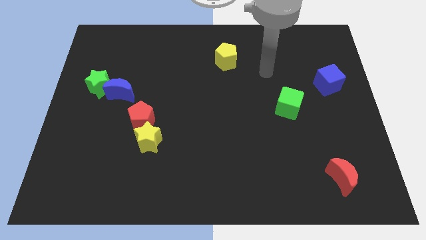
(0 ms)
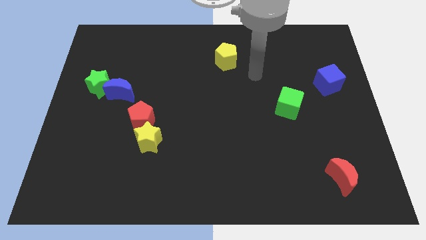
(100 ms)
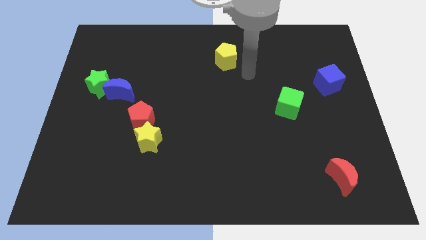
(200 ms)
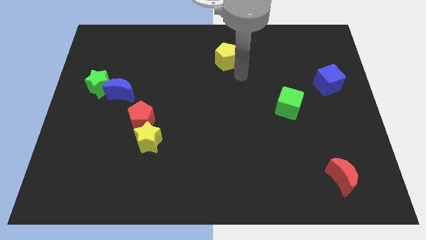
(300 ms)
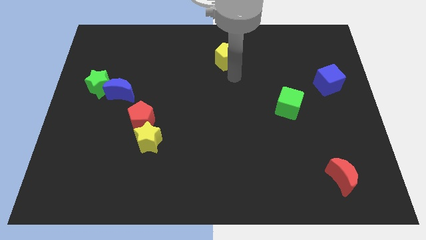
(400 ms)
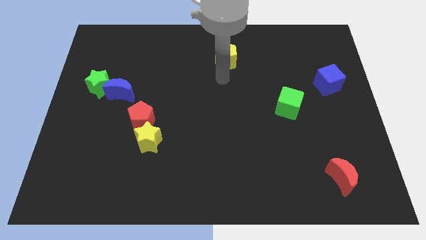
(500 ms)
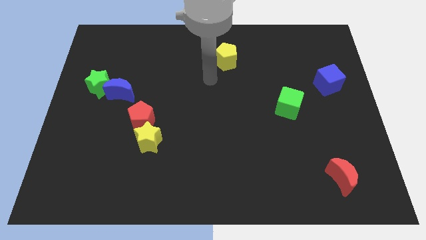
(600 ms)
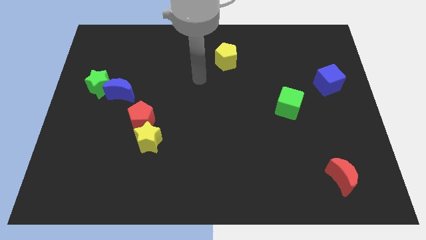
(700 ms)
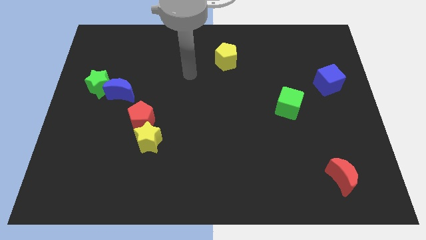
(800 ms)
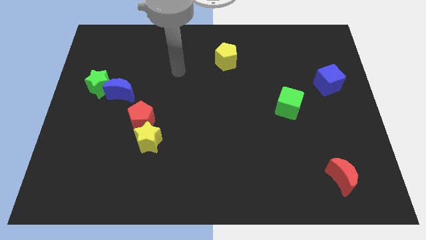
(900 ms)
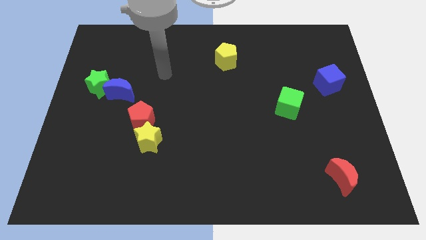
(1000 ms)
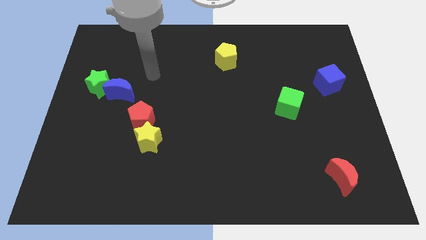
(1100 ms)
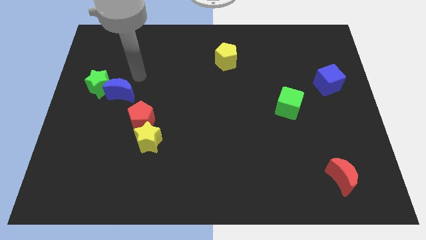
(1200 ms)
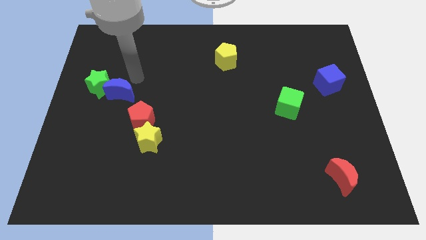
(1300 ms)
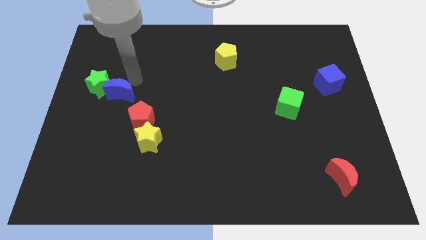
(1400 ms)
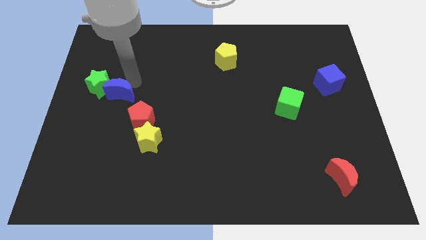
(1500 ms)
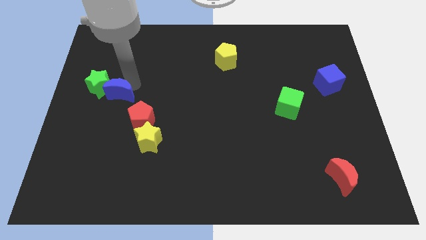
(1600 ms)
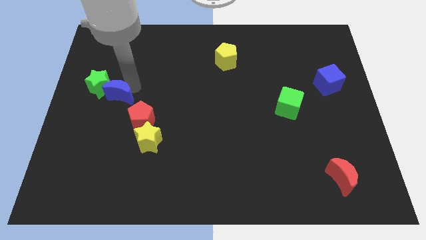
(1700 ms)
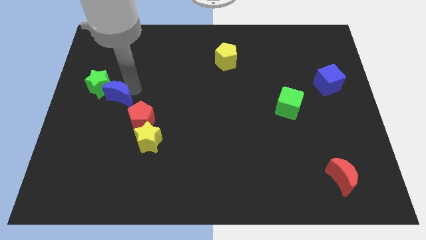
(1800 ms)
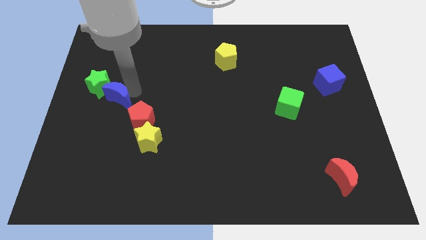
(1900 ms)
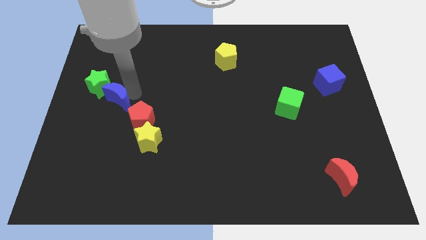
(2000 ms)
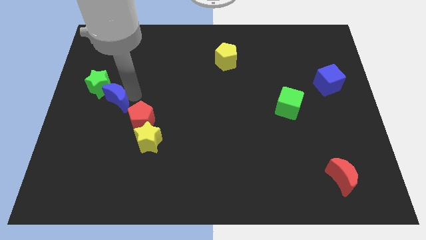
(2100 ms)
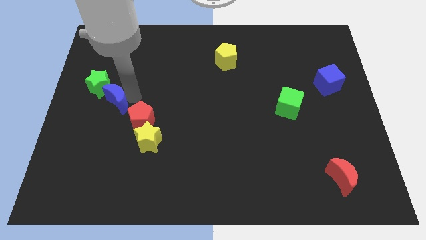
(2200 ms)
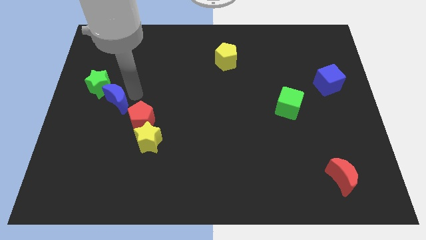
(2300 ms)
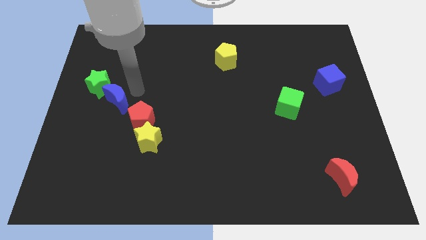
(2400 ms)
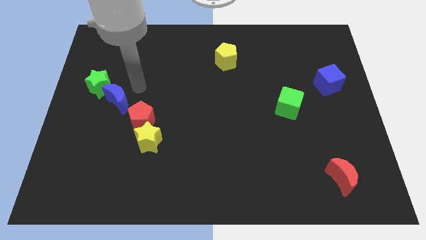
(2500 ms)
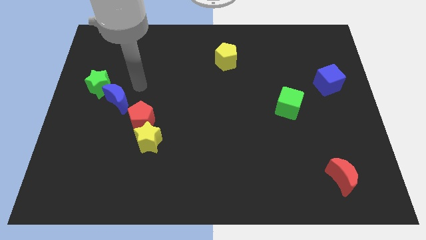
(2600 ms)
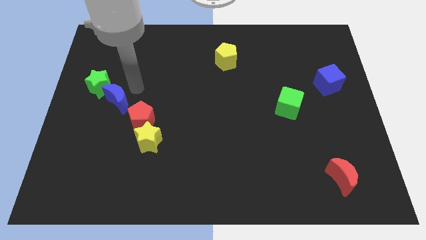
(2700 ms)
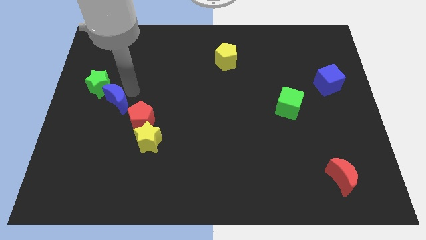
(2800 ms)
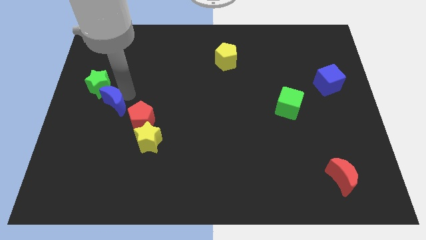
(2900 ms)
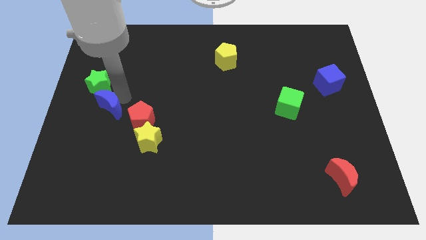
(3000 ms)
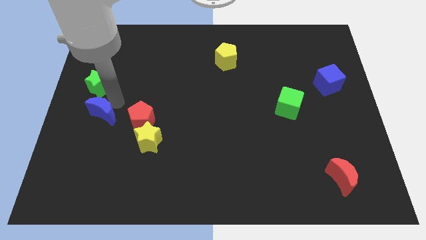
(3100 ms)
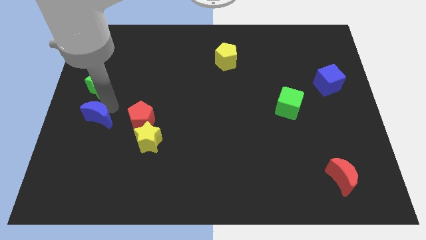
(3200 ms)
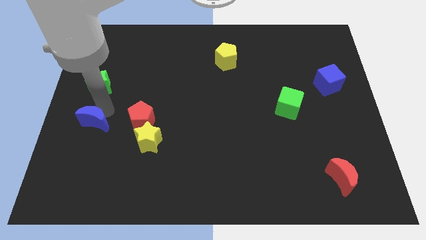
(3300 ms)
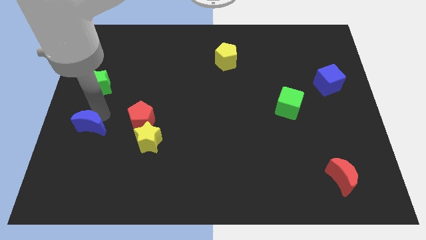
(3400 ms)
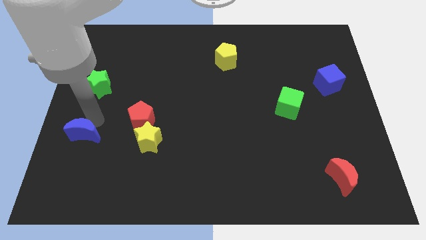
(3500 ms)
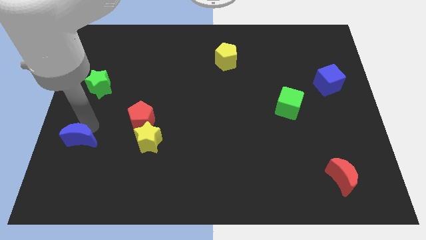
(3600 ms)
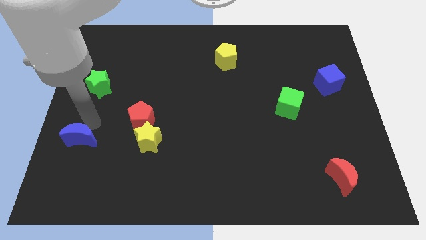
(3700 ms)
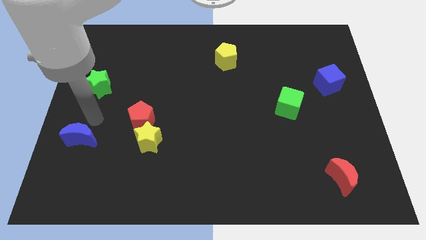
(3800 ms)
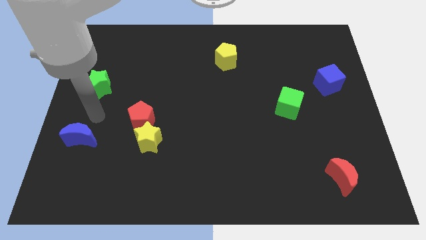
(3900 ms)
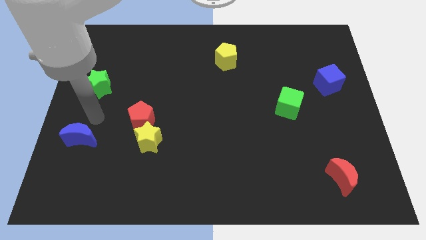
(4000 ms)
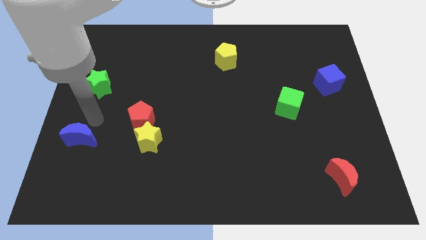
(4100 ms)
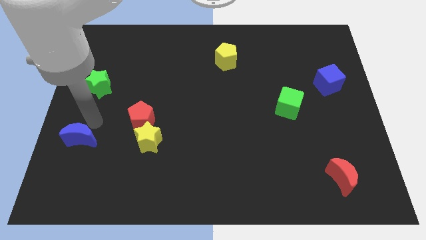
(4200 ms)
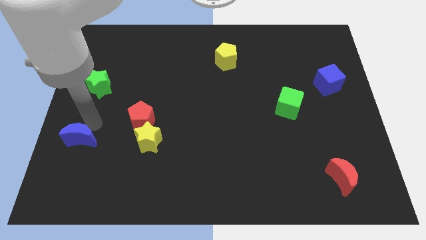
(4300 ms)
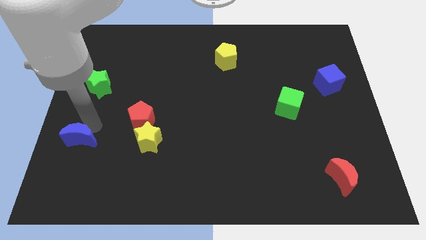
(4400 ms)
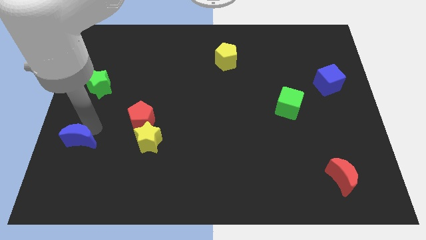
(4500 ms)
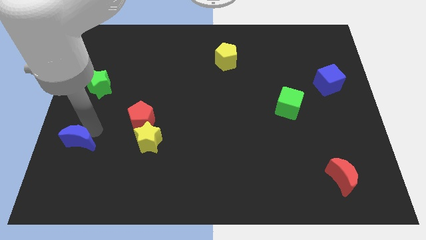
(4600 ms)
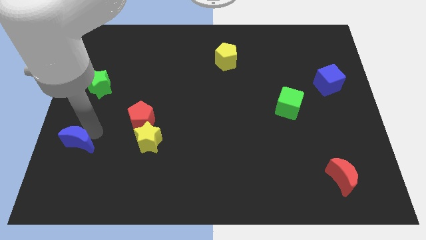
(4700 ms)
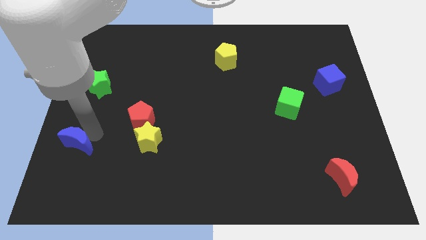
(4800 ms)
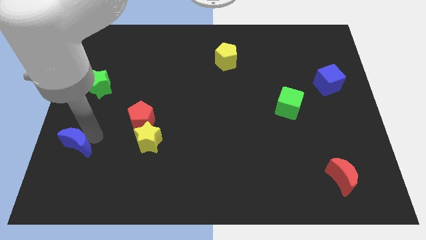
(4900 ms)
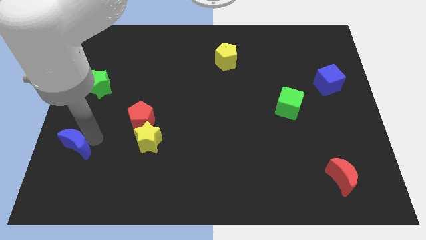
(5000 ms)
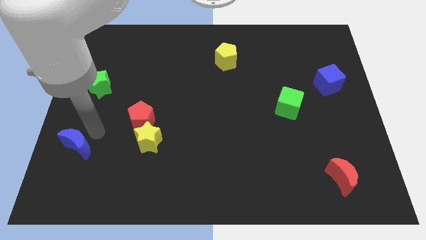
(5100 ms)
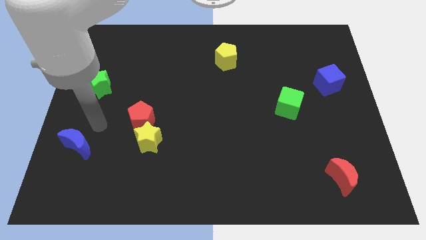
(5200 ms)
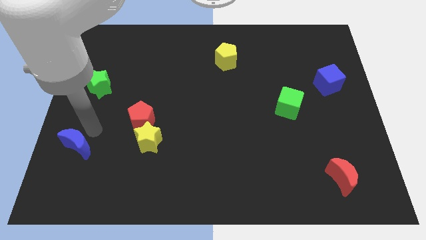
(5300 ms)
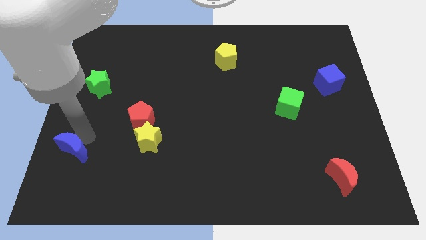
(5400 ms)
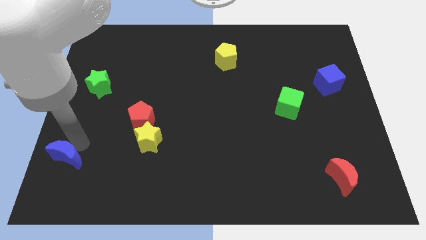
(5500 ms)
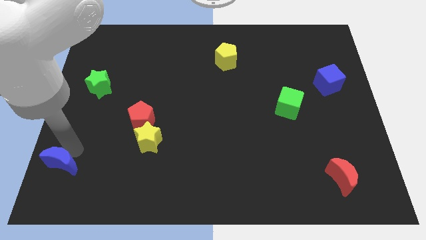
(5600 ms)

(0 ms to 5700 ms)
slide the blue moon to the bottom left
